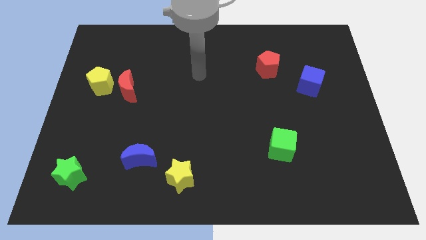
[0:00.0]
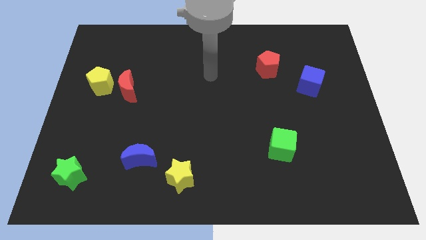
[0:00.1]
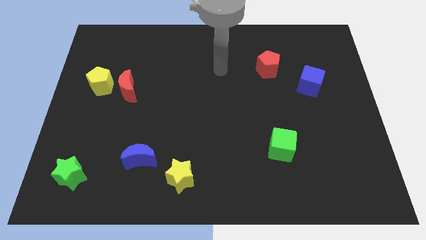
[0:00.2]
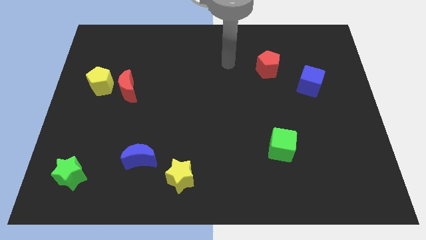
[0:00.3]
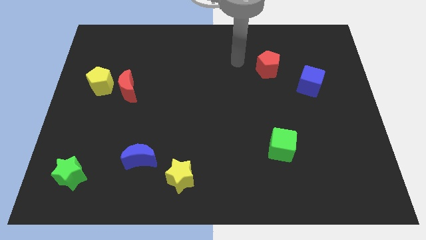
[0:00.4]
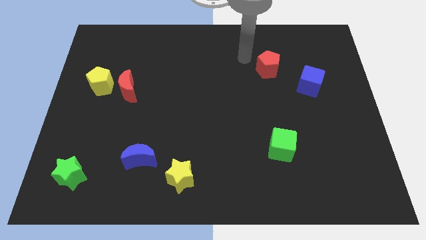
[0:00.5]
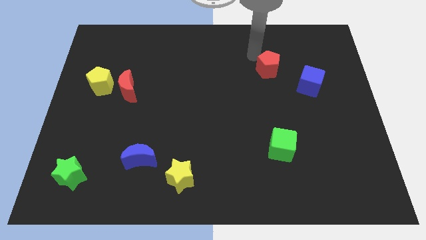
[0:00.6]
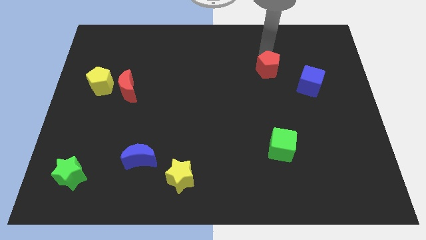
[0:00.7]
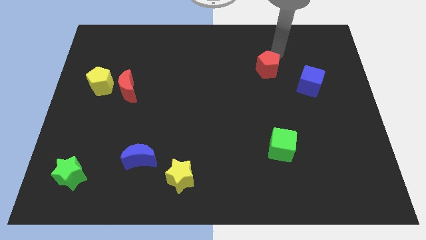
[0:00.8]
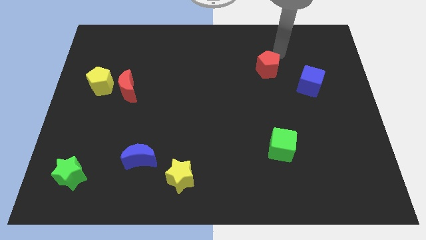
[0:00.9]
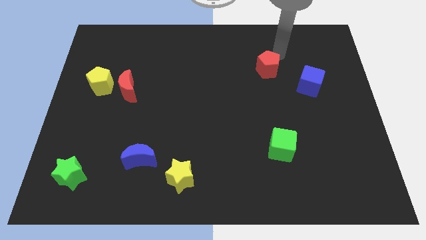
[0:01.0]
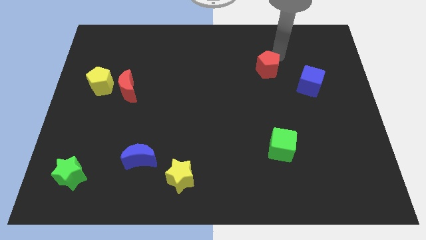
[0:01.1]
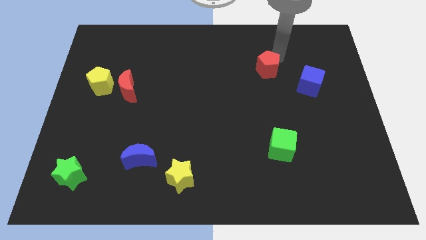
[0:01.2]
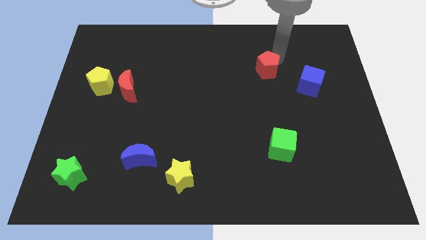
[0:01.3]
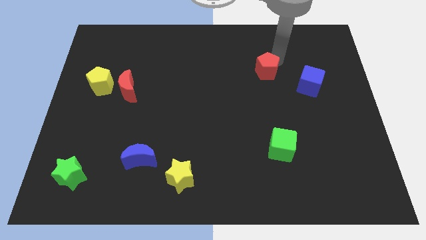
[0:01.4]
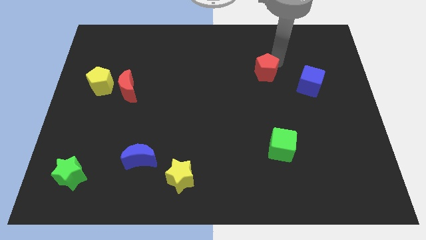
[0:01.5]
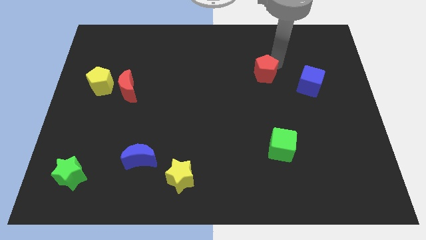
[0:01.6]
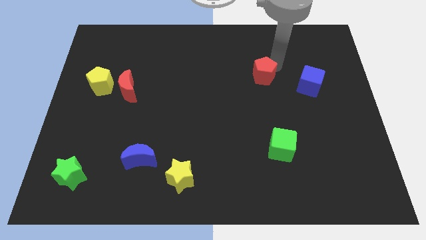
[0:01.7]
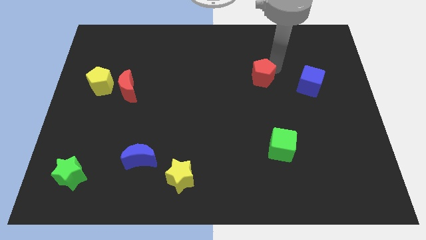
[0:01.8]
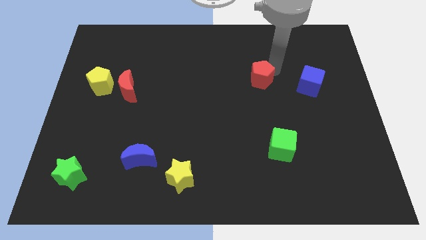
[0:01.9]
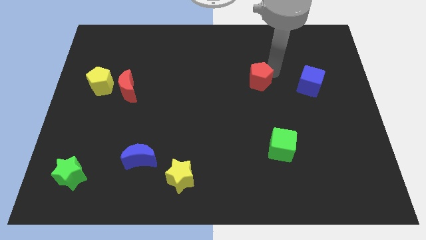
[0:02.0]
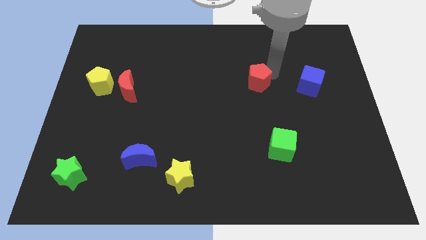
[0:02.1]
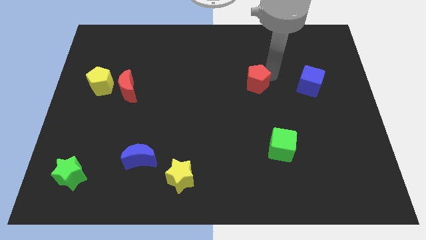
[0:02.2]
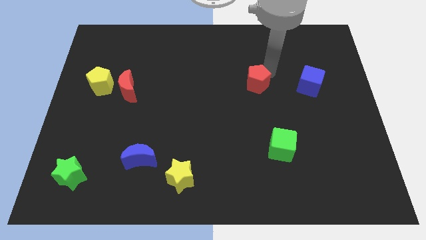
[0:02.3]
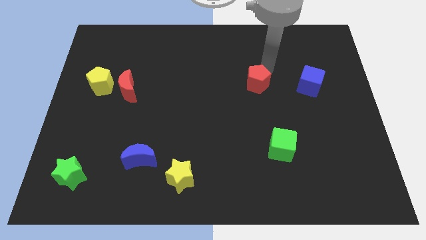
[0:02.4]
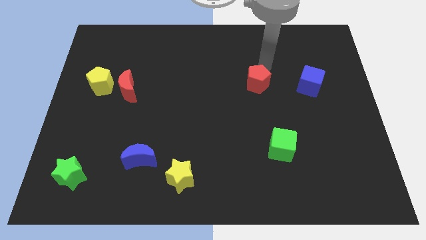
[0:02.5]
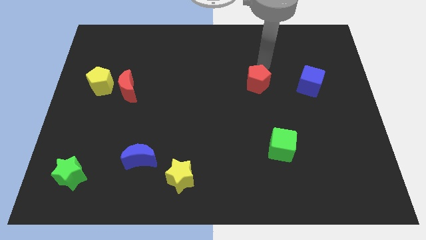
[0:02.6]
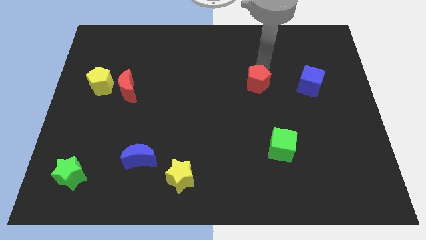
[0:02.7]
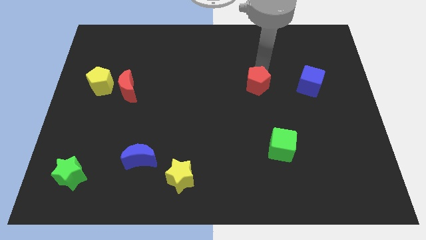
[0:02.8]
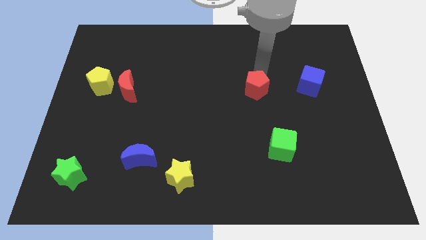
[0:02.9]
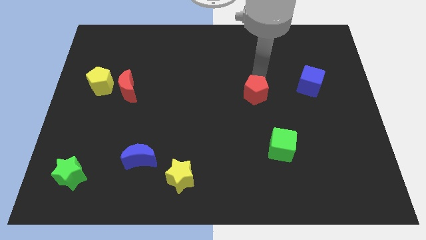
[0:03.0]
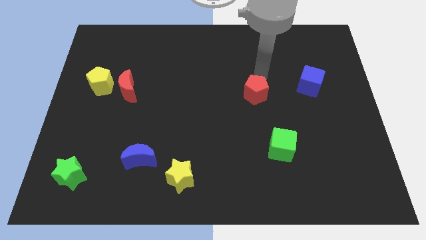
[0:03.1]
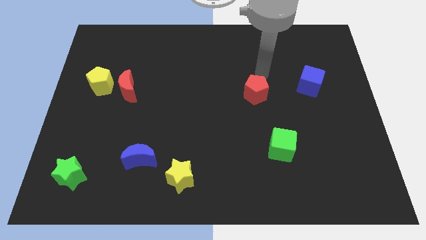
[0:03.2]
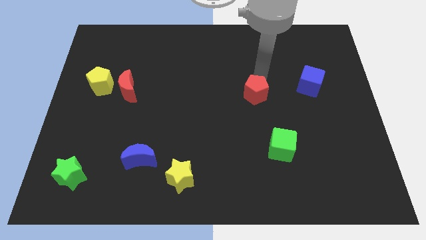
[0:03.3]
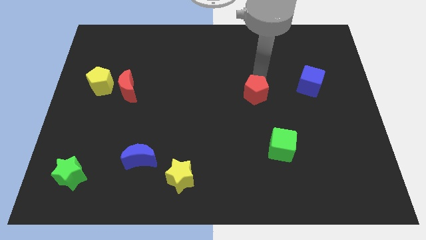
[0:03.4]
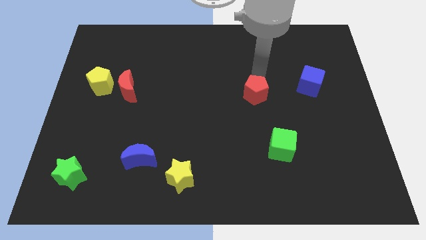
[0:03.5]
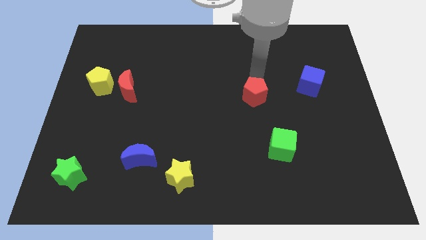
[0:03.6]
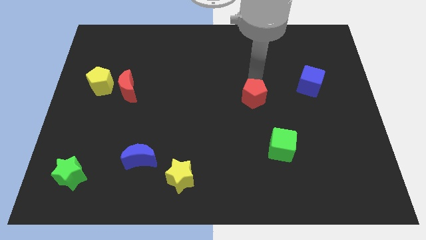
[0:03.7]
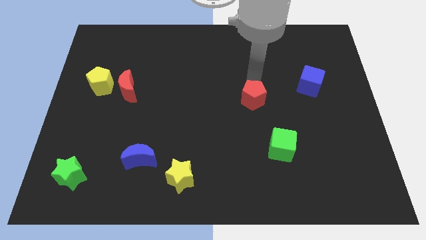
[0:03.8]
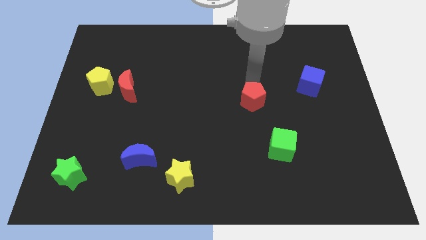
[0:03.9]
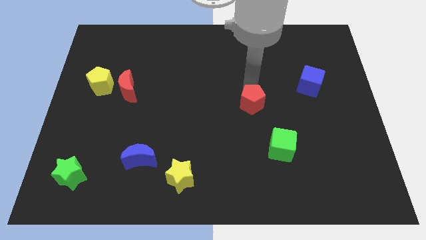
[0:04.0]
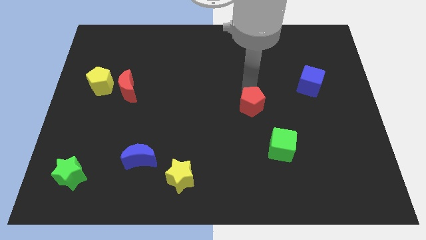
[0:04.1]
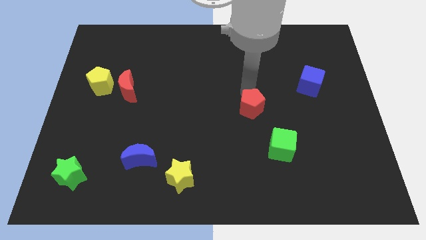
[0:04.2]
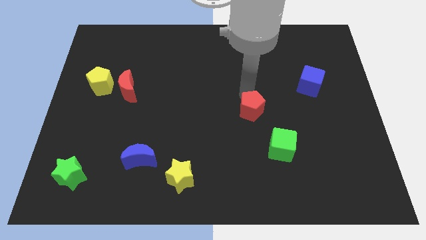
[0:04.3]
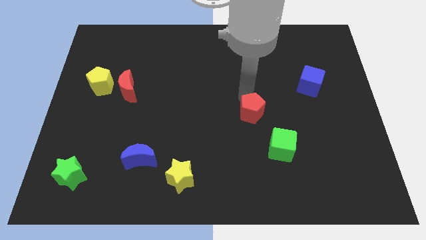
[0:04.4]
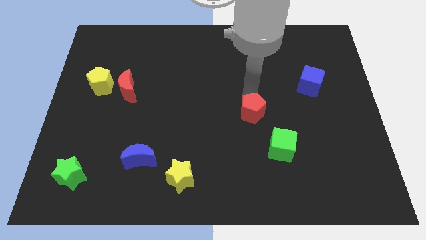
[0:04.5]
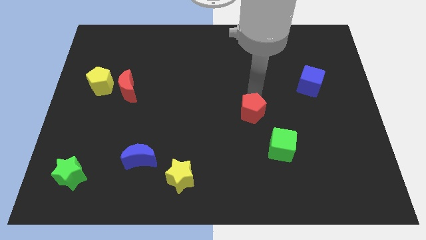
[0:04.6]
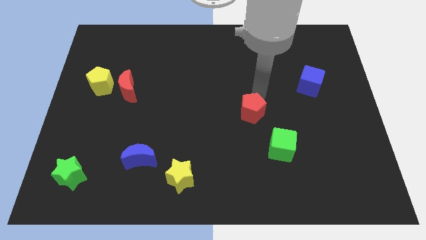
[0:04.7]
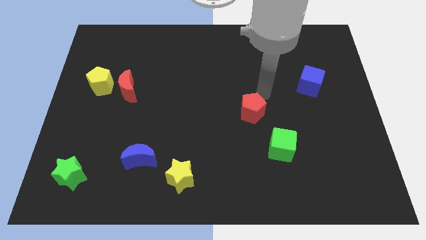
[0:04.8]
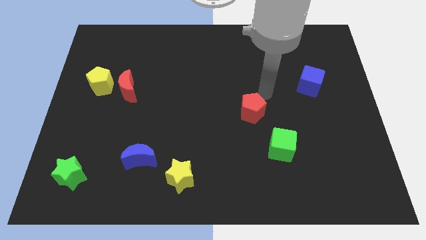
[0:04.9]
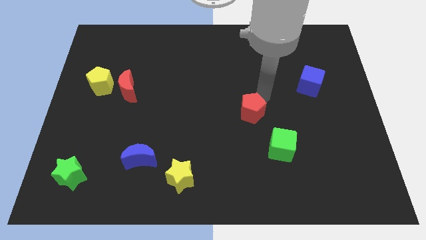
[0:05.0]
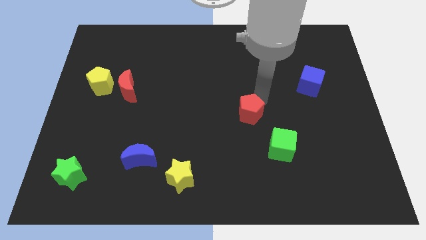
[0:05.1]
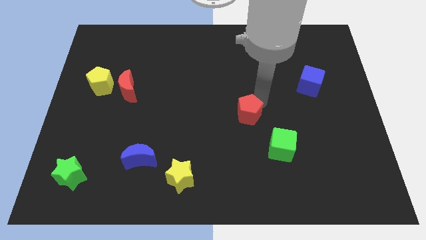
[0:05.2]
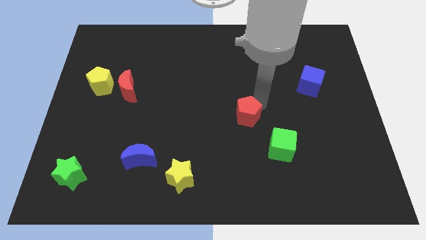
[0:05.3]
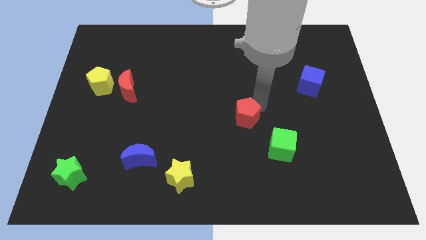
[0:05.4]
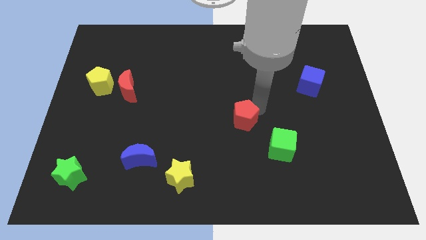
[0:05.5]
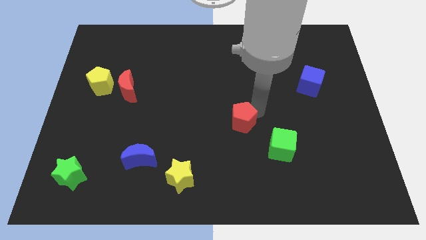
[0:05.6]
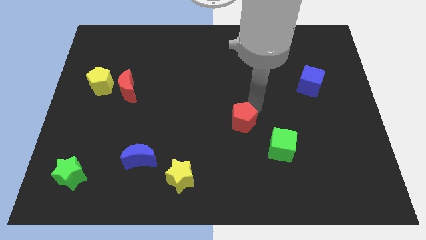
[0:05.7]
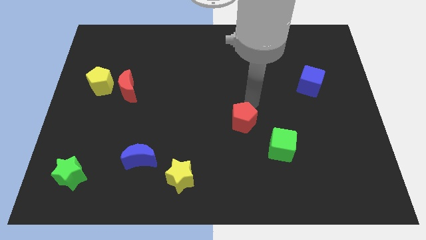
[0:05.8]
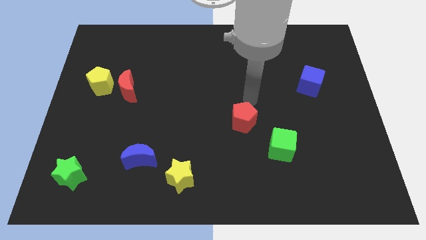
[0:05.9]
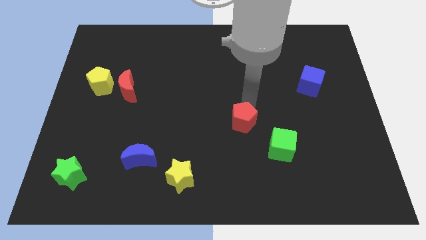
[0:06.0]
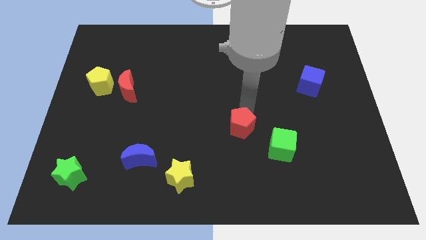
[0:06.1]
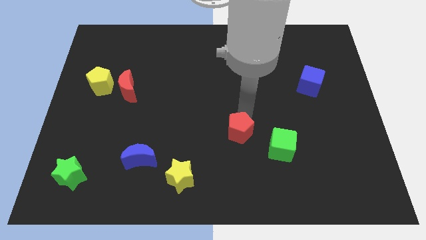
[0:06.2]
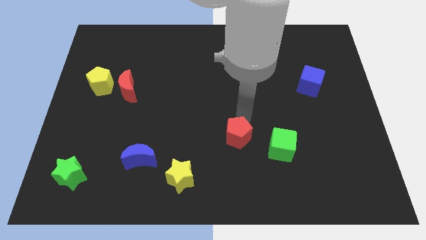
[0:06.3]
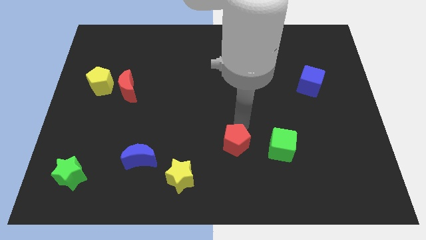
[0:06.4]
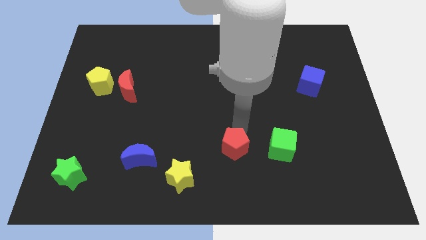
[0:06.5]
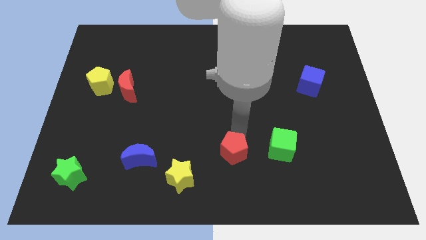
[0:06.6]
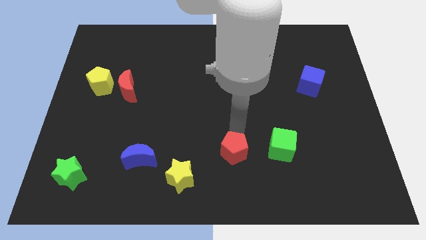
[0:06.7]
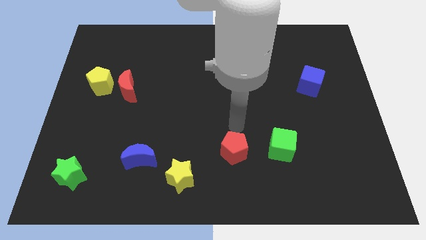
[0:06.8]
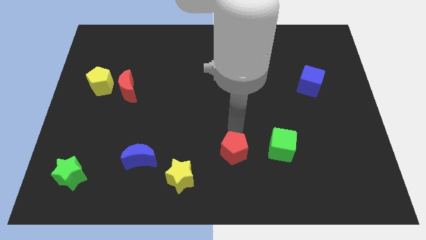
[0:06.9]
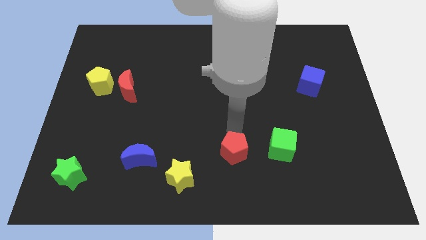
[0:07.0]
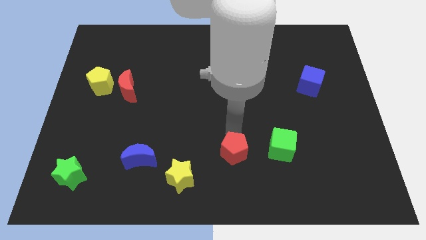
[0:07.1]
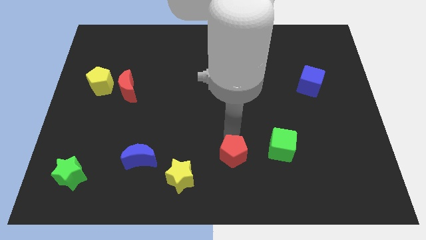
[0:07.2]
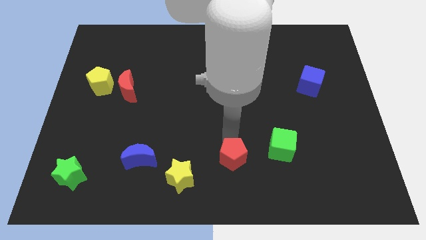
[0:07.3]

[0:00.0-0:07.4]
slide the red pentagon just right of the yellow star

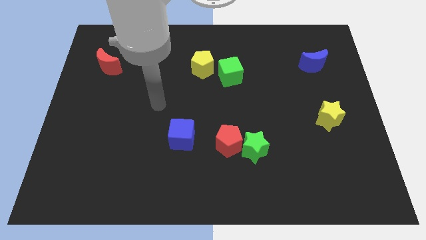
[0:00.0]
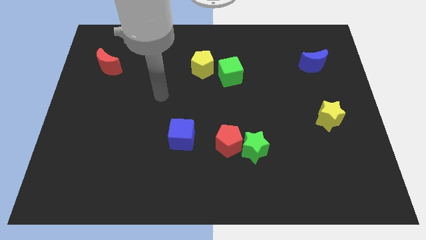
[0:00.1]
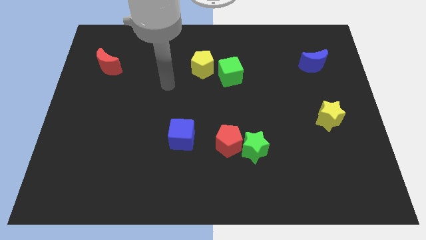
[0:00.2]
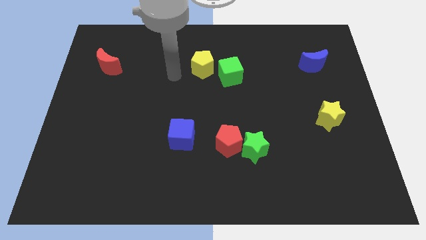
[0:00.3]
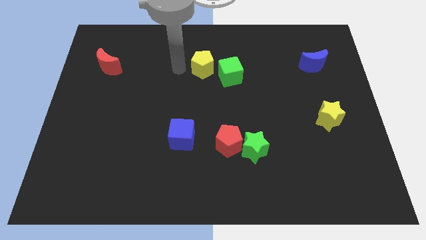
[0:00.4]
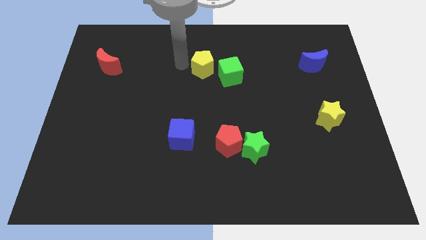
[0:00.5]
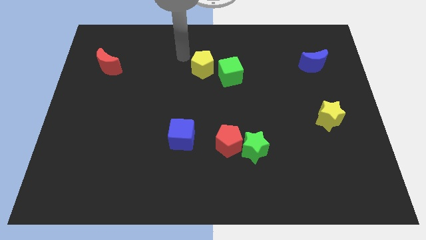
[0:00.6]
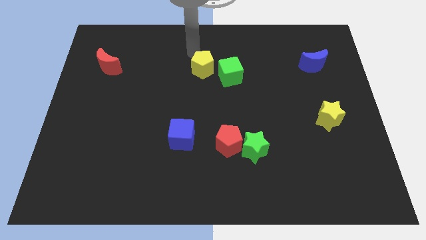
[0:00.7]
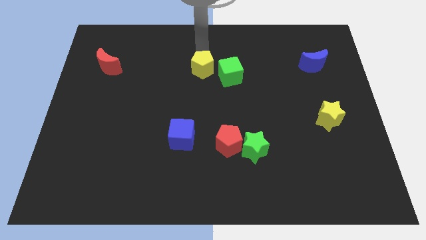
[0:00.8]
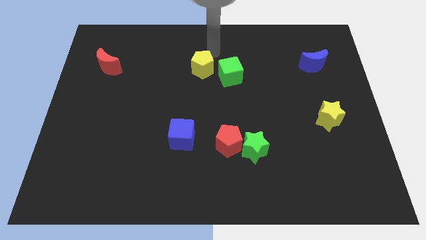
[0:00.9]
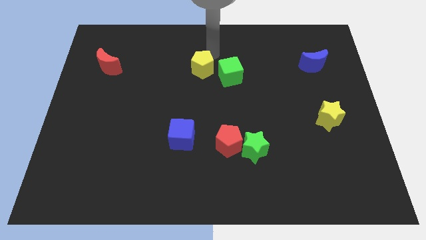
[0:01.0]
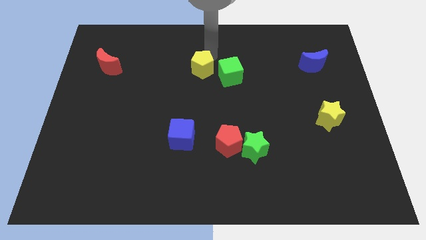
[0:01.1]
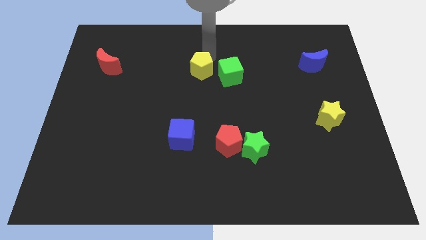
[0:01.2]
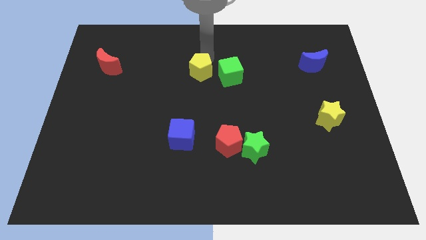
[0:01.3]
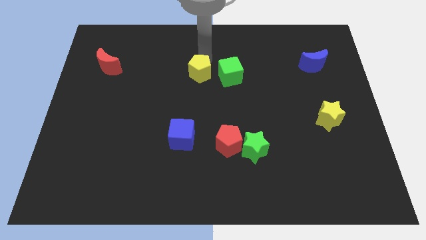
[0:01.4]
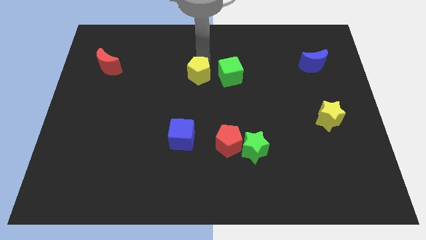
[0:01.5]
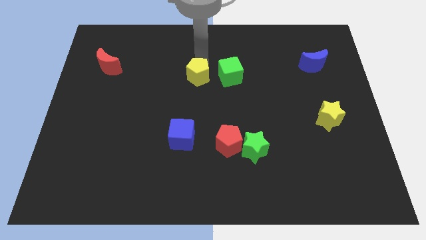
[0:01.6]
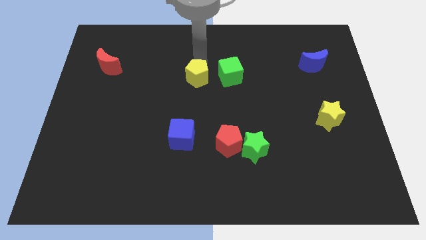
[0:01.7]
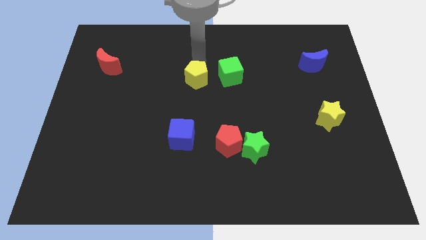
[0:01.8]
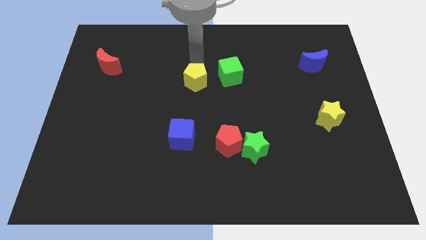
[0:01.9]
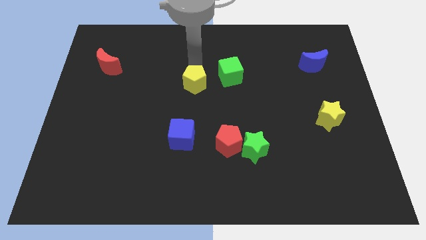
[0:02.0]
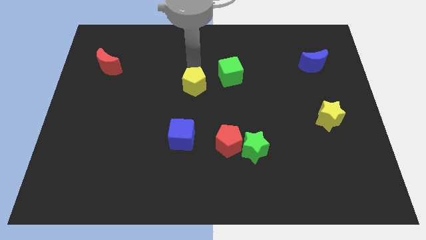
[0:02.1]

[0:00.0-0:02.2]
put the yellow pentagon above the blue cube
